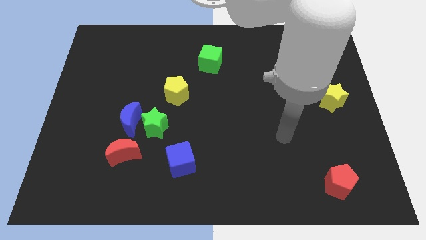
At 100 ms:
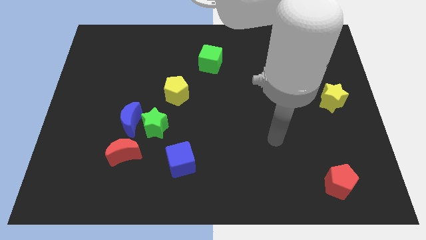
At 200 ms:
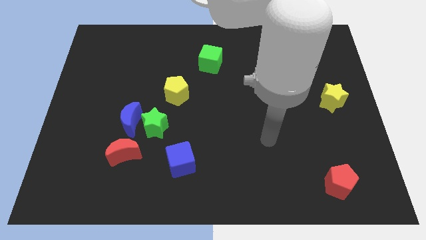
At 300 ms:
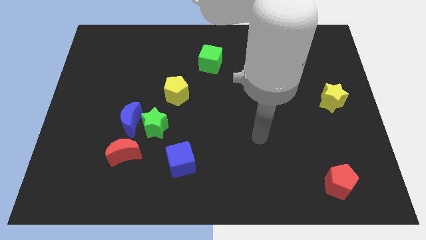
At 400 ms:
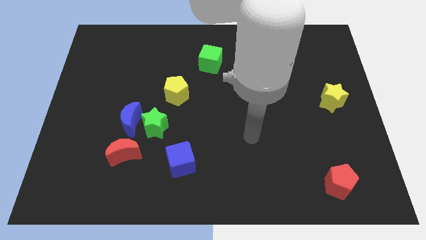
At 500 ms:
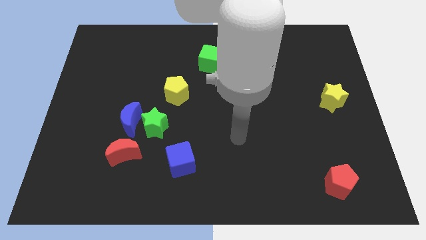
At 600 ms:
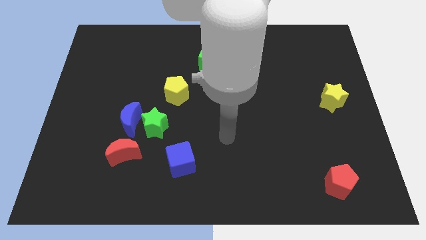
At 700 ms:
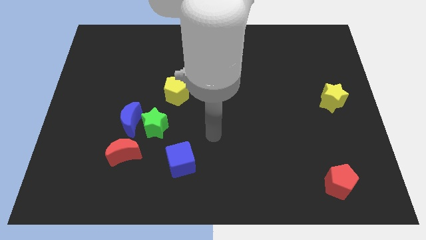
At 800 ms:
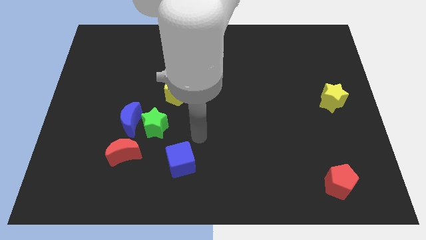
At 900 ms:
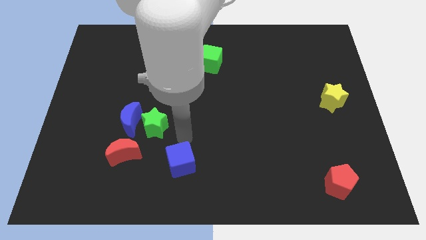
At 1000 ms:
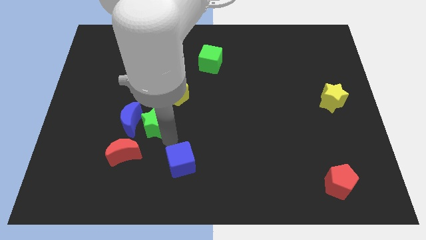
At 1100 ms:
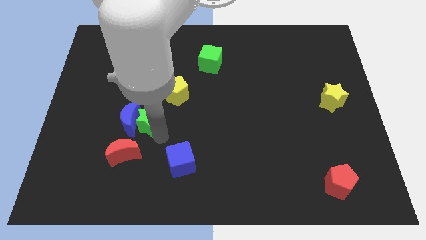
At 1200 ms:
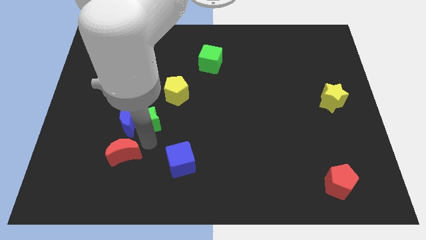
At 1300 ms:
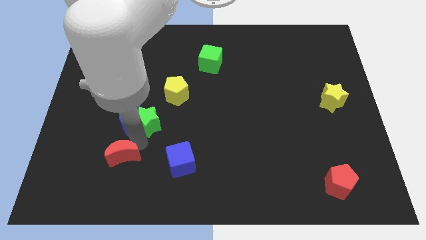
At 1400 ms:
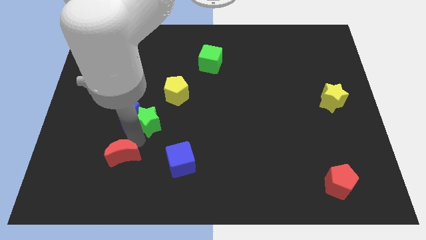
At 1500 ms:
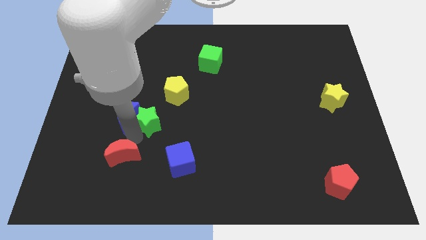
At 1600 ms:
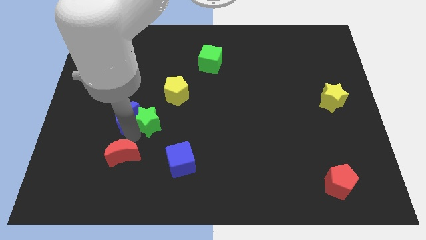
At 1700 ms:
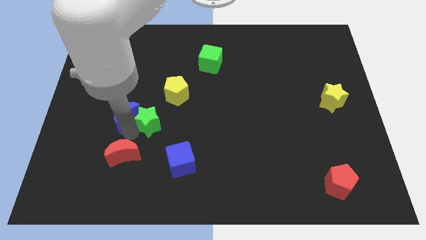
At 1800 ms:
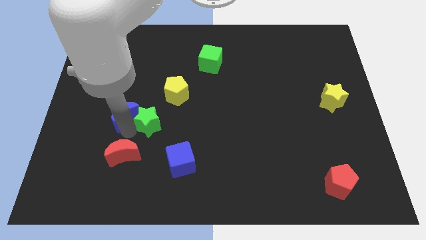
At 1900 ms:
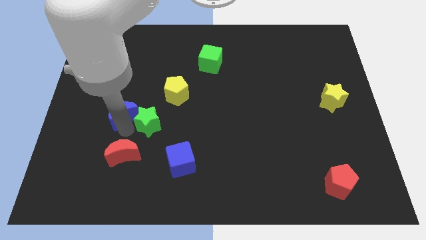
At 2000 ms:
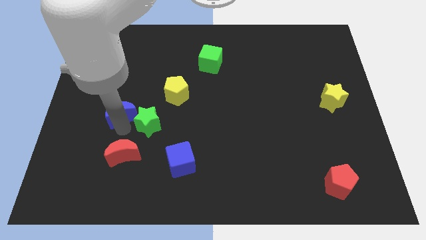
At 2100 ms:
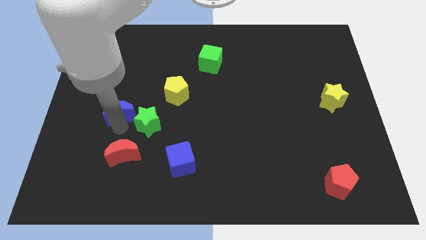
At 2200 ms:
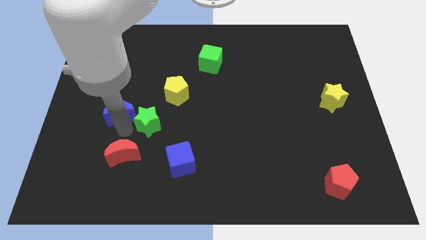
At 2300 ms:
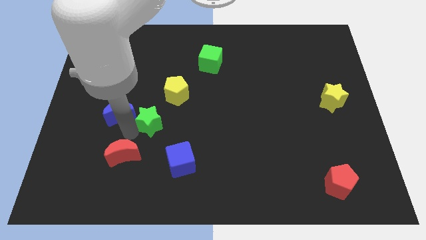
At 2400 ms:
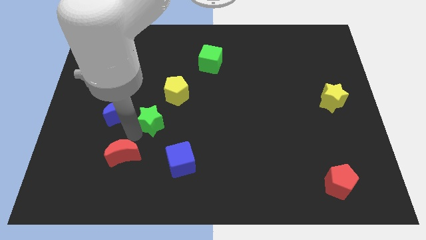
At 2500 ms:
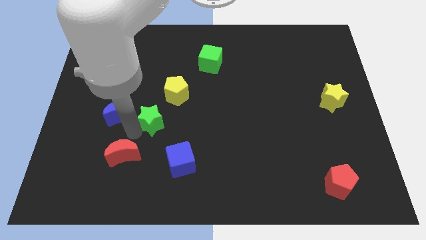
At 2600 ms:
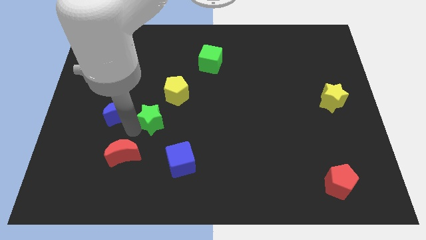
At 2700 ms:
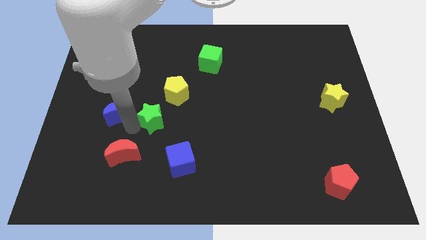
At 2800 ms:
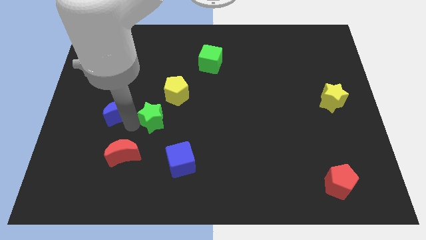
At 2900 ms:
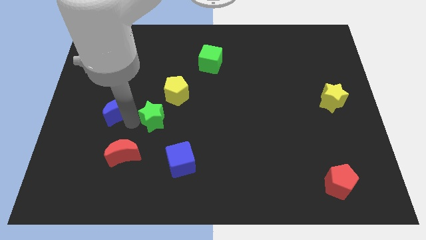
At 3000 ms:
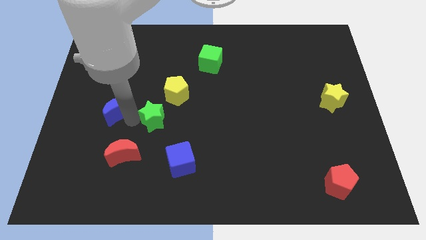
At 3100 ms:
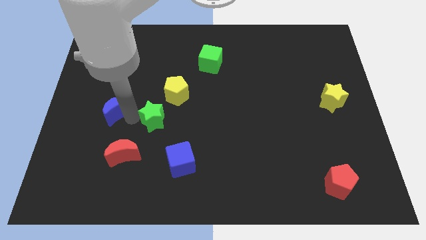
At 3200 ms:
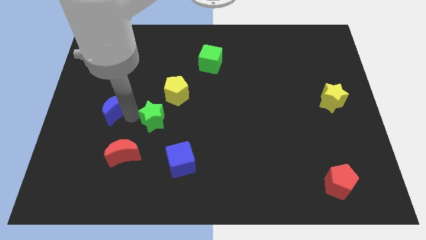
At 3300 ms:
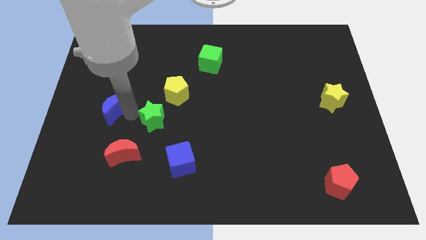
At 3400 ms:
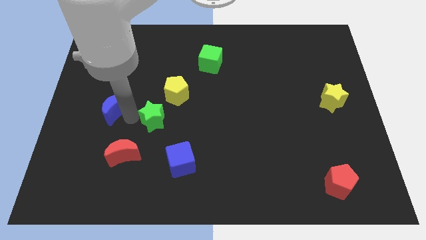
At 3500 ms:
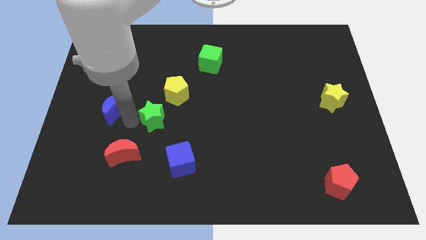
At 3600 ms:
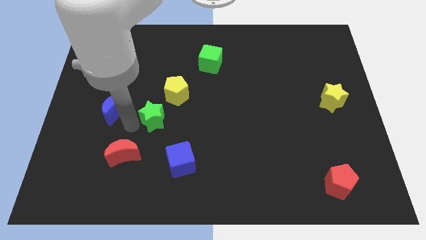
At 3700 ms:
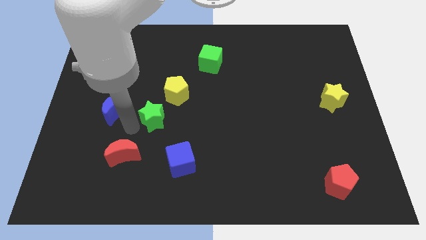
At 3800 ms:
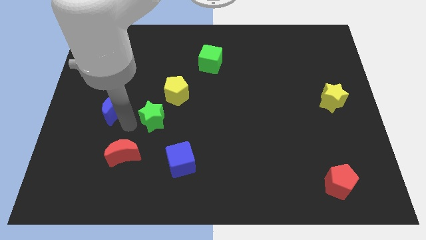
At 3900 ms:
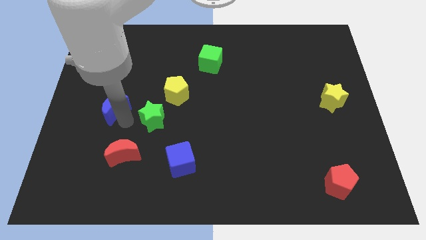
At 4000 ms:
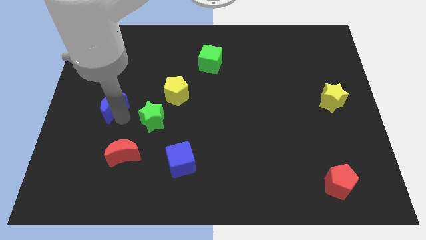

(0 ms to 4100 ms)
separate the blue moon from the green star and red moon

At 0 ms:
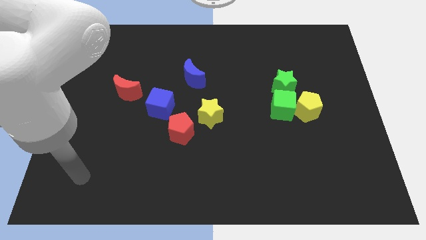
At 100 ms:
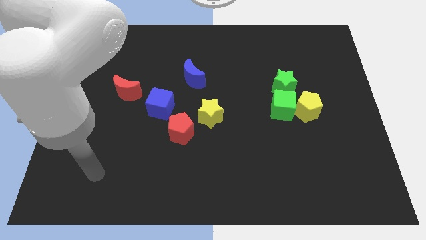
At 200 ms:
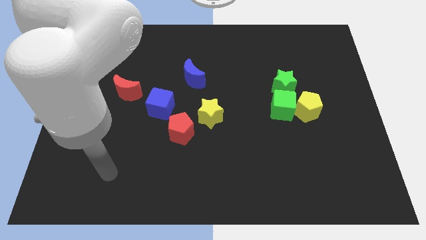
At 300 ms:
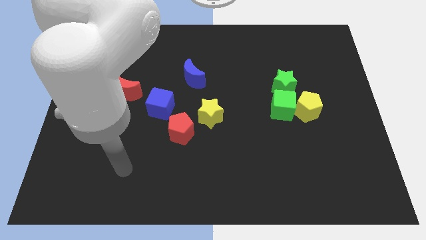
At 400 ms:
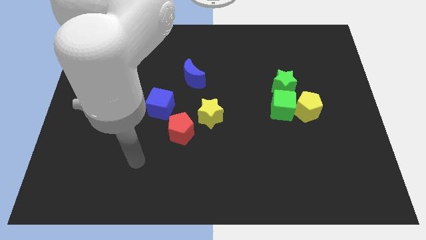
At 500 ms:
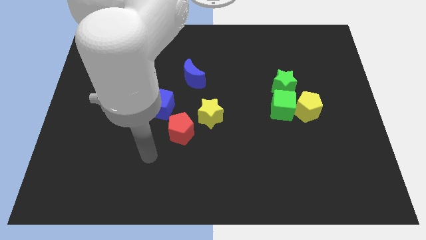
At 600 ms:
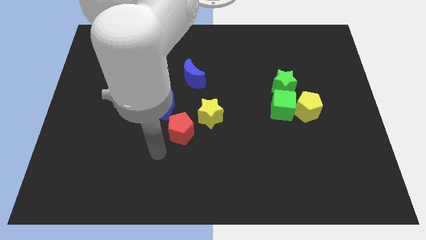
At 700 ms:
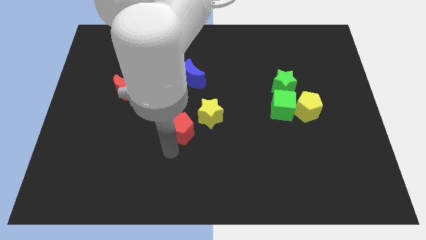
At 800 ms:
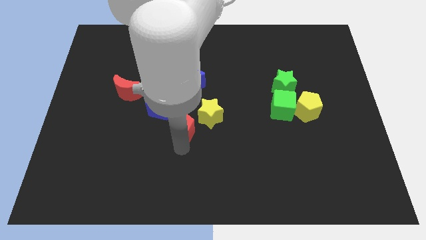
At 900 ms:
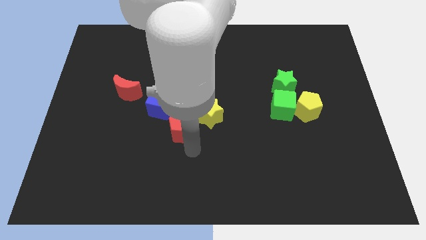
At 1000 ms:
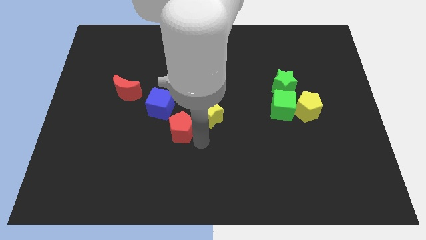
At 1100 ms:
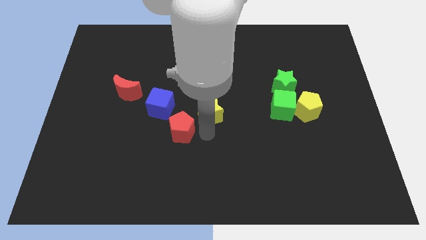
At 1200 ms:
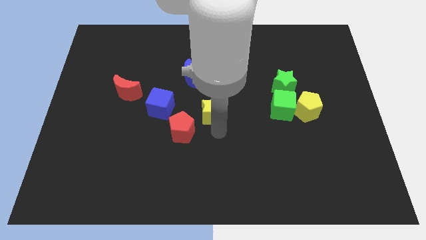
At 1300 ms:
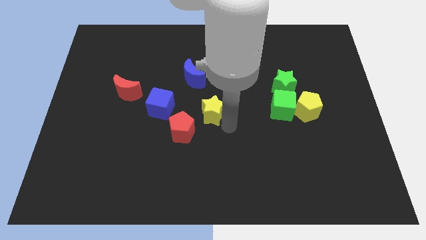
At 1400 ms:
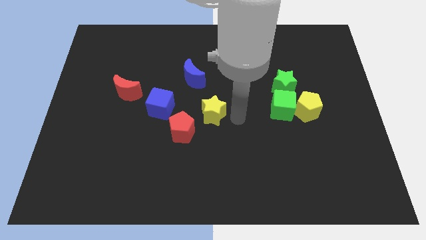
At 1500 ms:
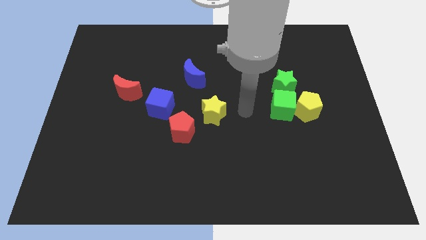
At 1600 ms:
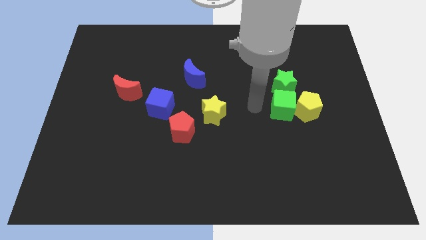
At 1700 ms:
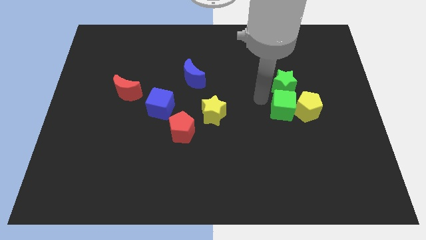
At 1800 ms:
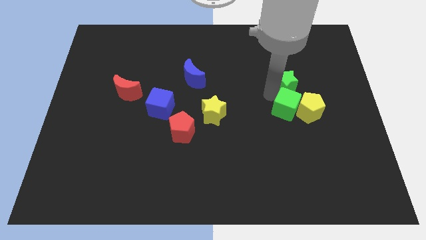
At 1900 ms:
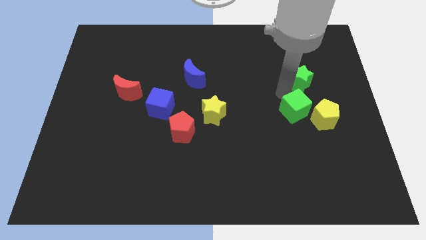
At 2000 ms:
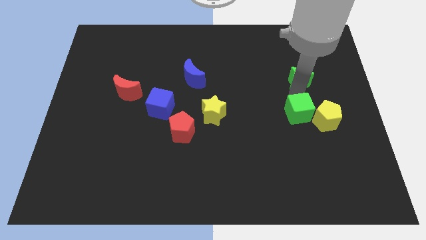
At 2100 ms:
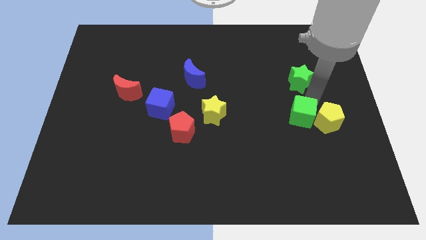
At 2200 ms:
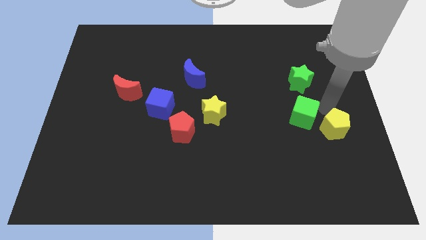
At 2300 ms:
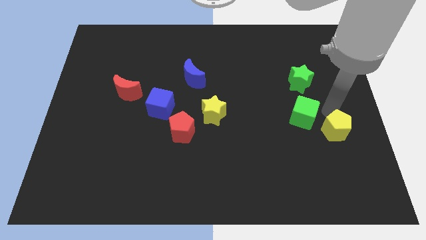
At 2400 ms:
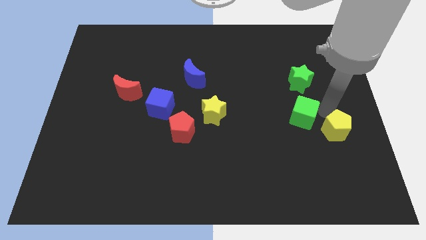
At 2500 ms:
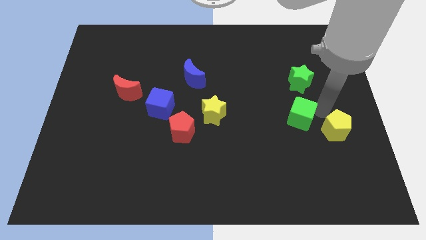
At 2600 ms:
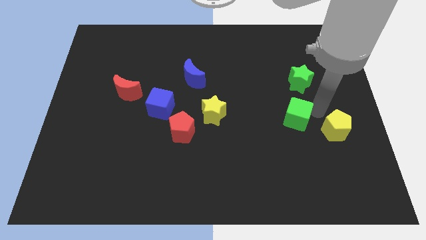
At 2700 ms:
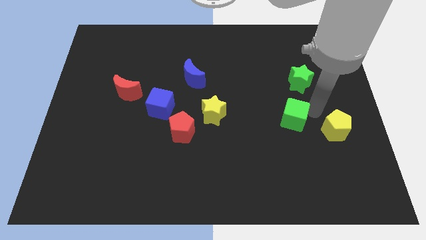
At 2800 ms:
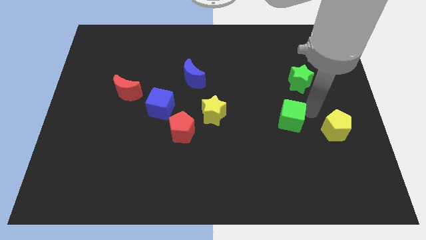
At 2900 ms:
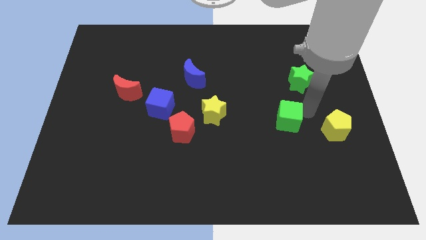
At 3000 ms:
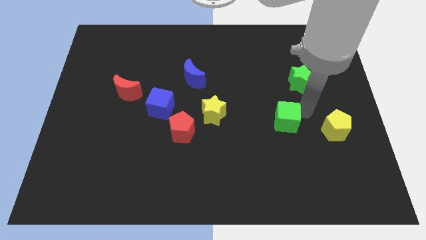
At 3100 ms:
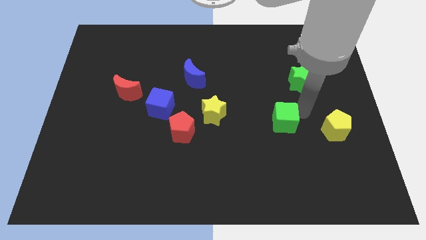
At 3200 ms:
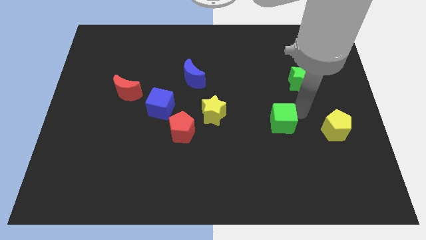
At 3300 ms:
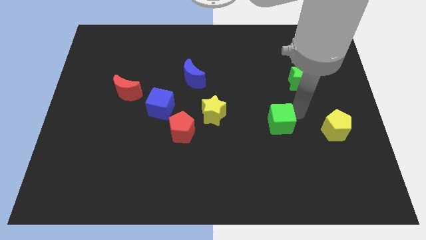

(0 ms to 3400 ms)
pull the green cube apart from the yellow pentagon and green star

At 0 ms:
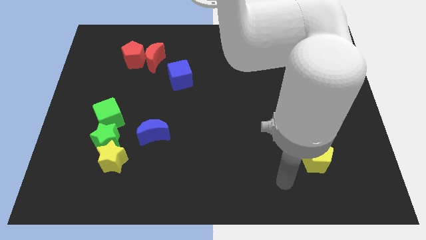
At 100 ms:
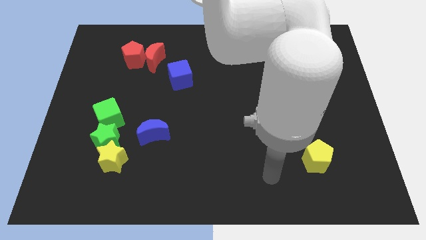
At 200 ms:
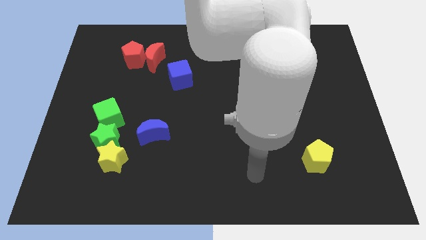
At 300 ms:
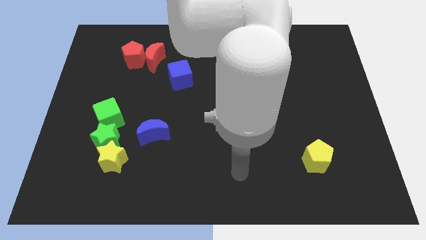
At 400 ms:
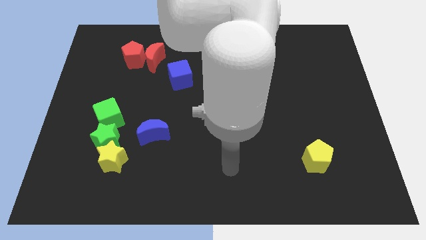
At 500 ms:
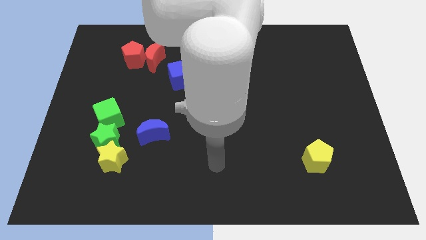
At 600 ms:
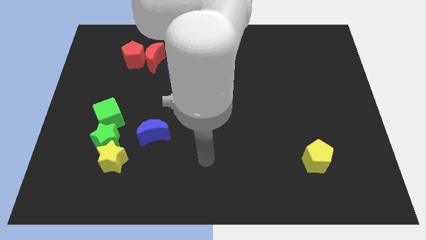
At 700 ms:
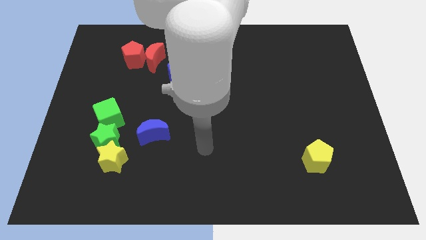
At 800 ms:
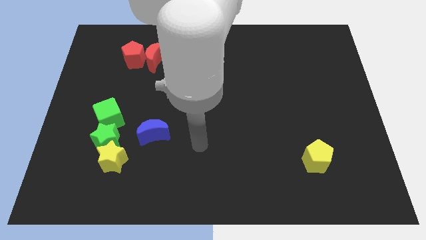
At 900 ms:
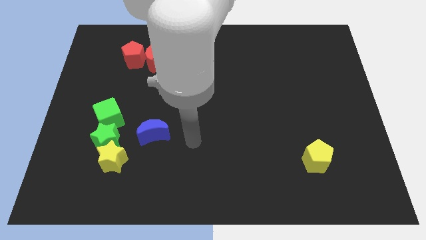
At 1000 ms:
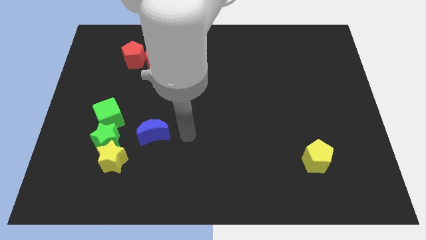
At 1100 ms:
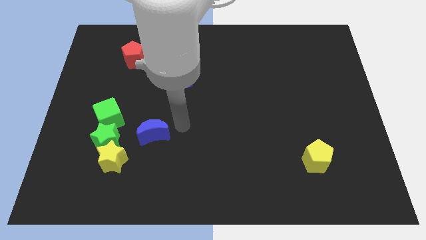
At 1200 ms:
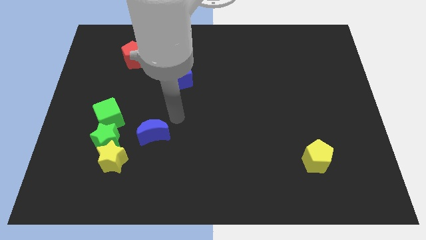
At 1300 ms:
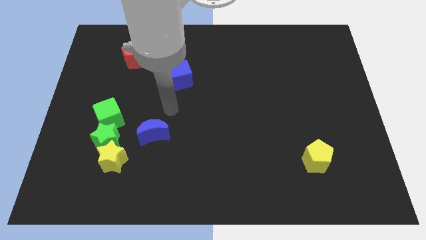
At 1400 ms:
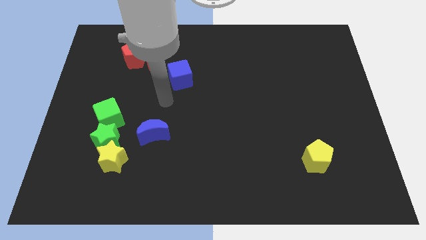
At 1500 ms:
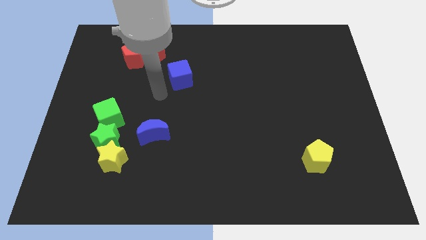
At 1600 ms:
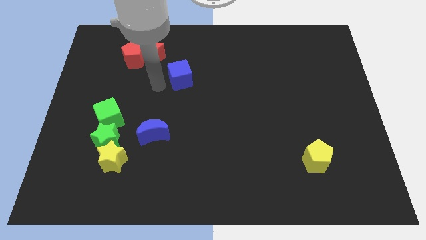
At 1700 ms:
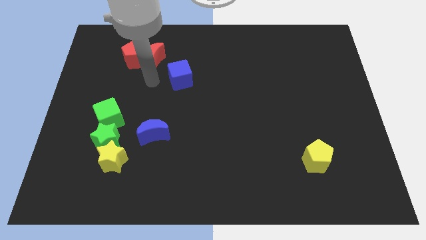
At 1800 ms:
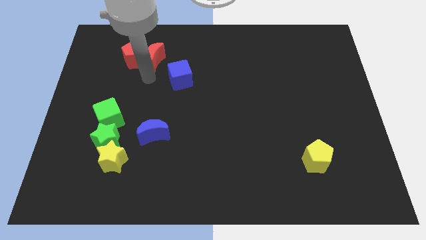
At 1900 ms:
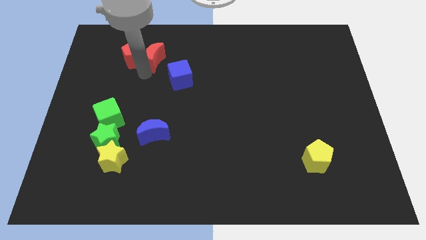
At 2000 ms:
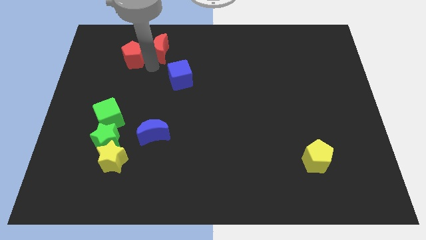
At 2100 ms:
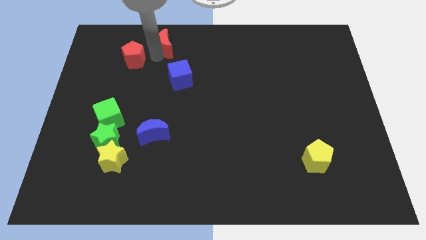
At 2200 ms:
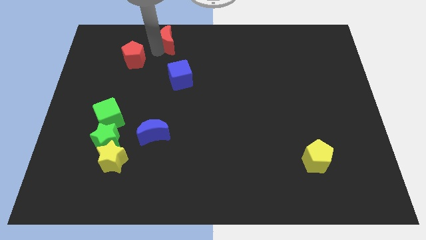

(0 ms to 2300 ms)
pull the red pentagon apart from the red moon
